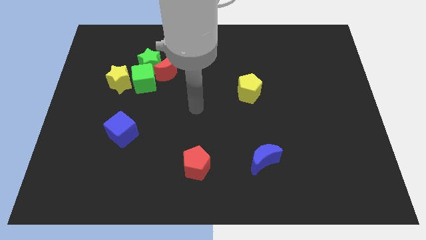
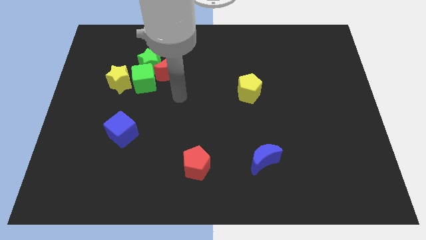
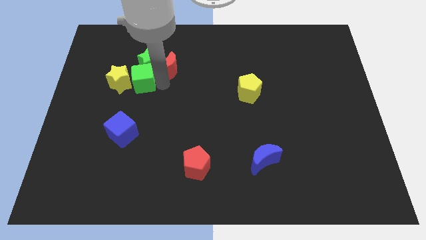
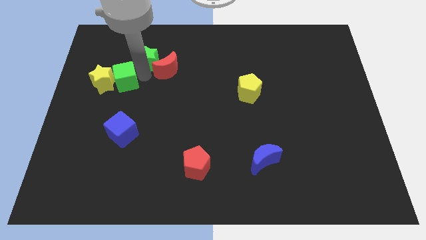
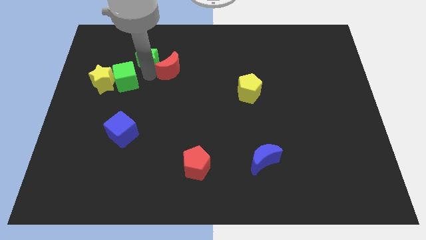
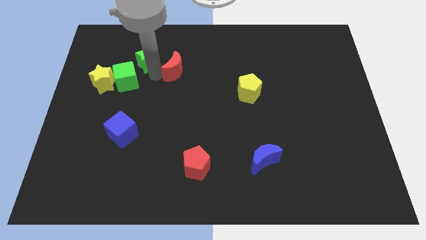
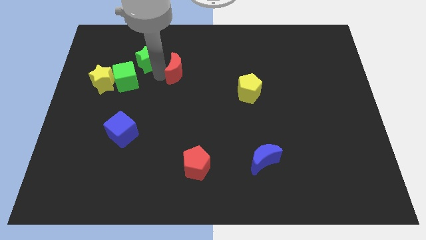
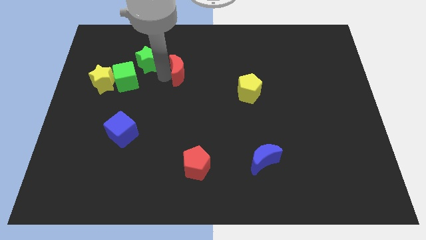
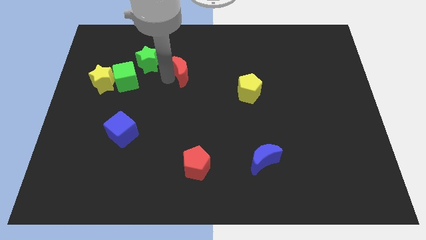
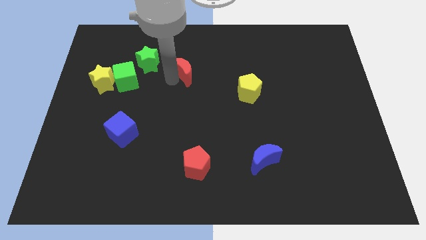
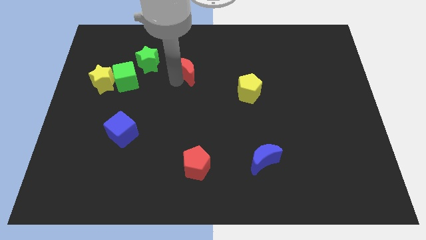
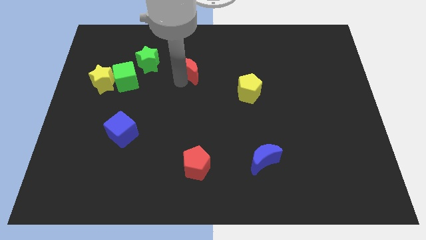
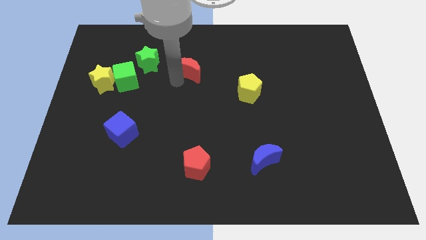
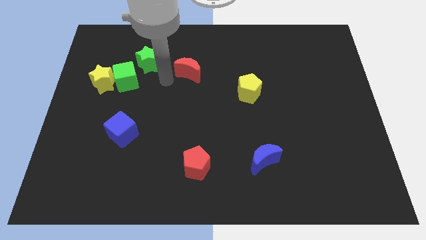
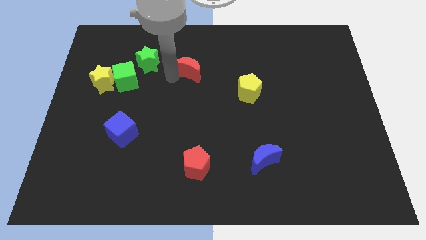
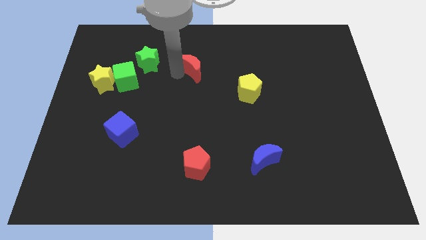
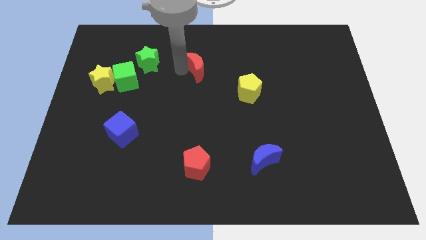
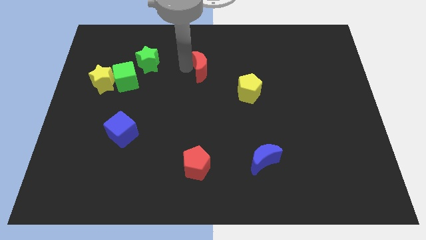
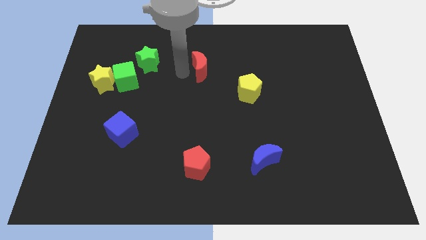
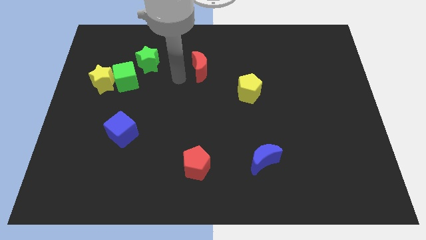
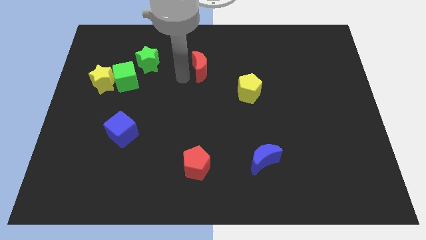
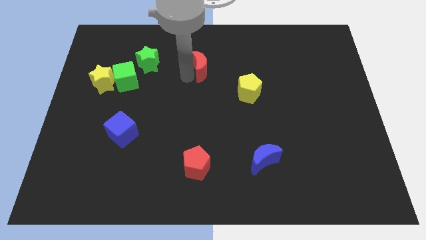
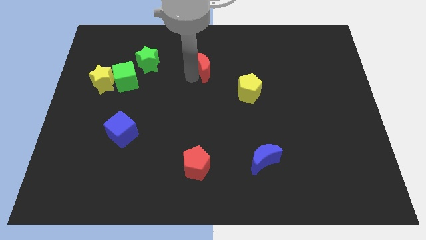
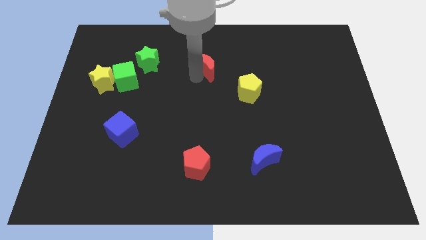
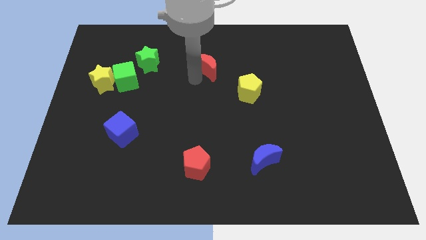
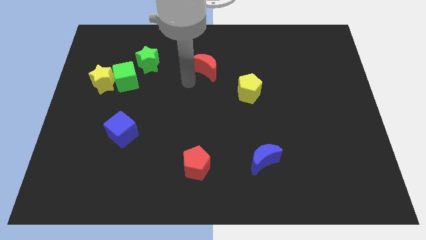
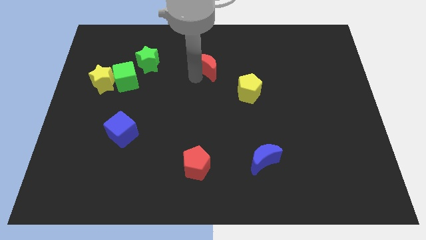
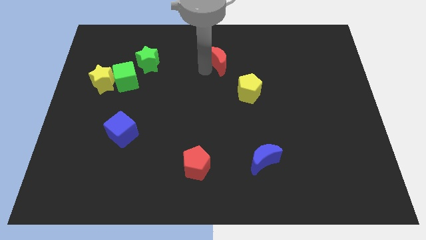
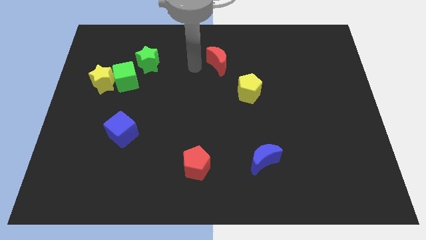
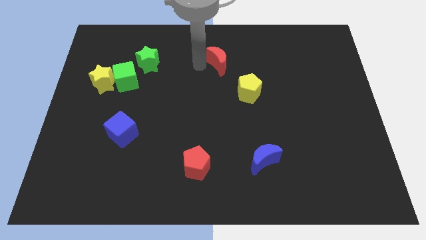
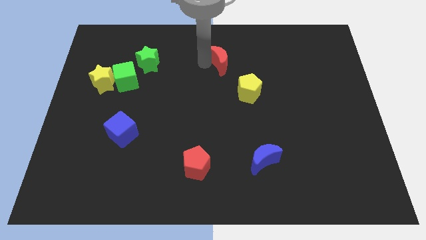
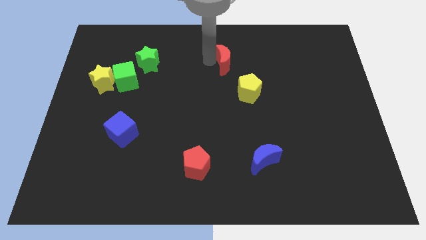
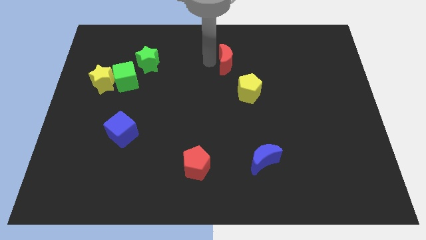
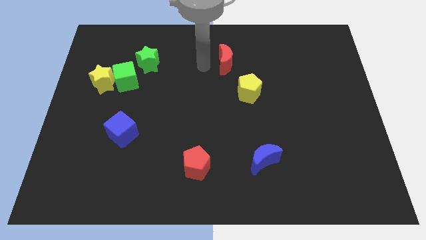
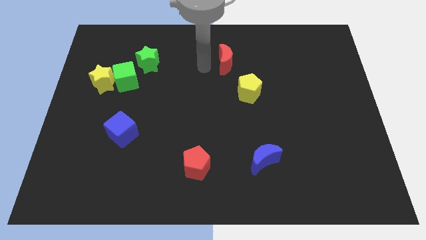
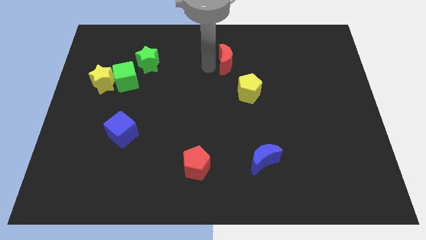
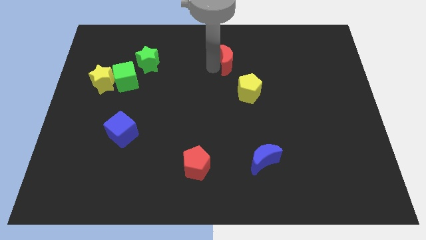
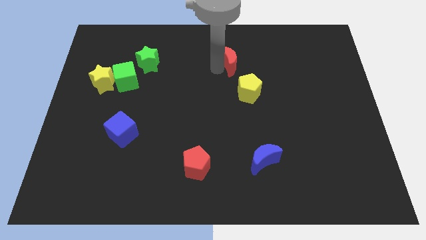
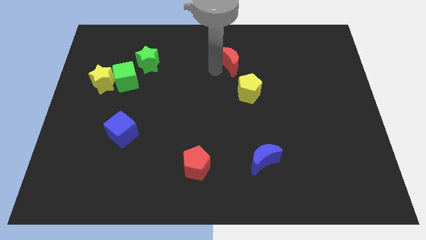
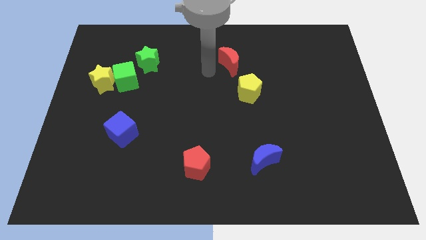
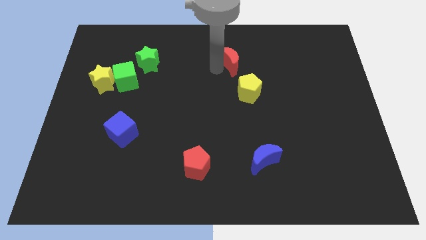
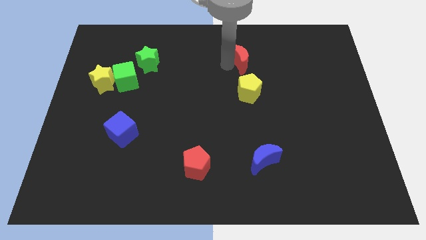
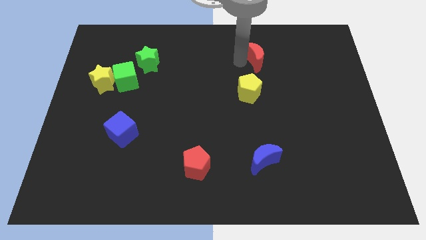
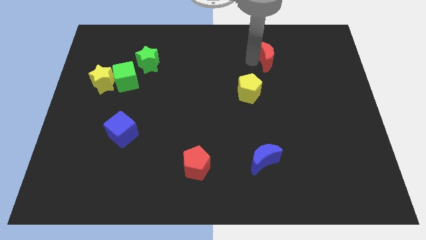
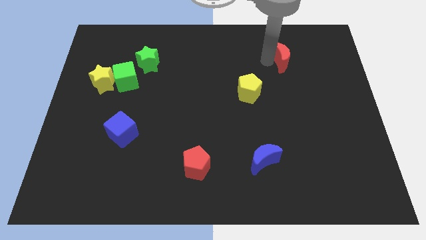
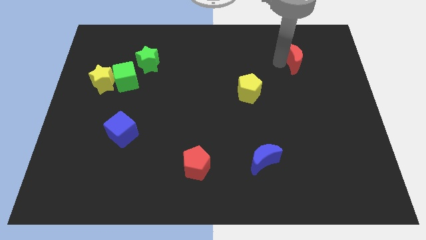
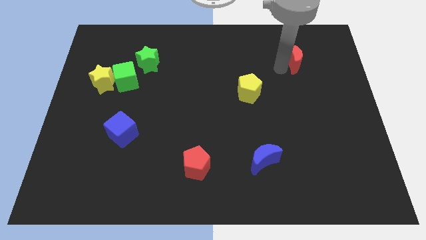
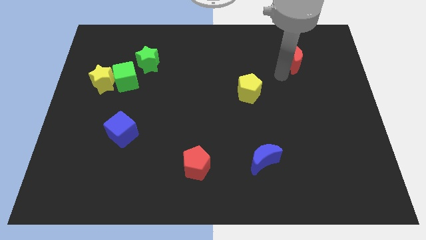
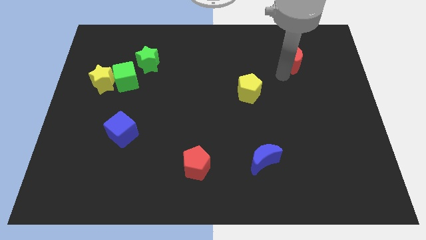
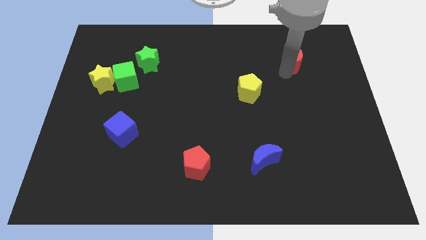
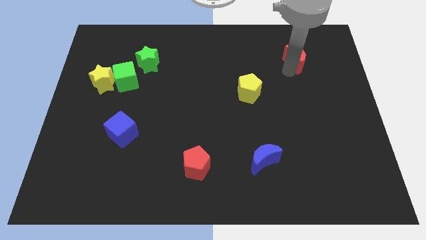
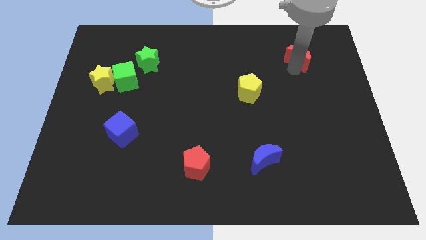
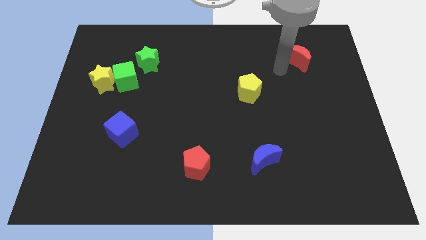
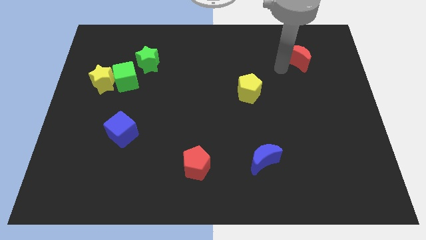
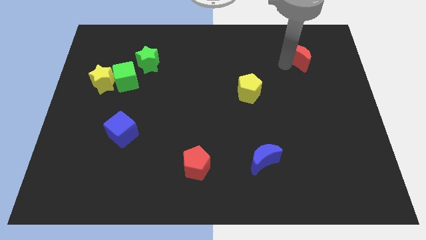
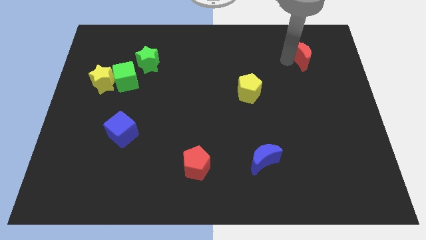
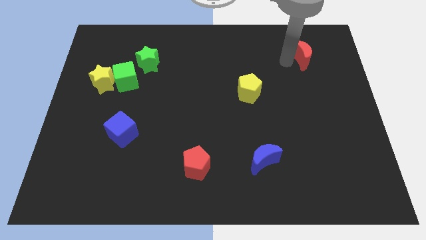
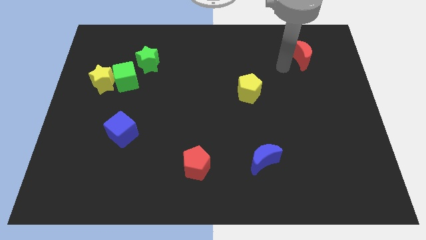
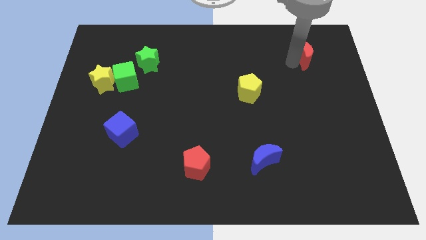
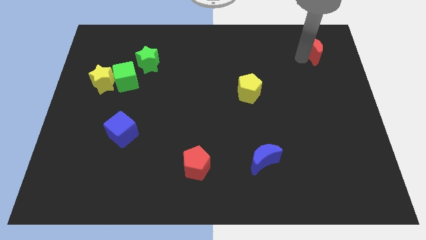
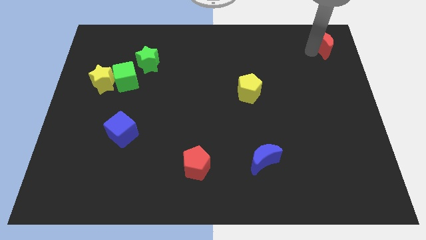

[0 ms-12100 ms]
move the red moon to the top right of the board
